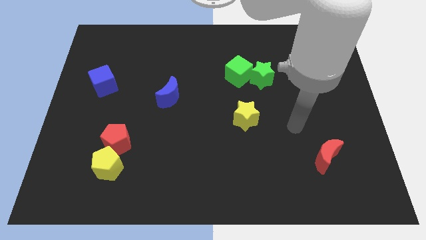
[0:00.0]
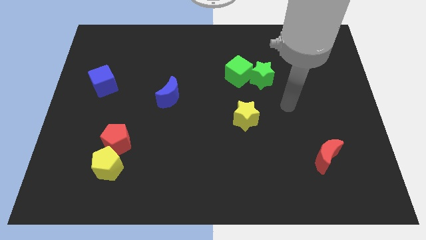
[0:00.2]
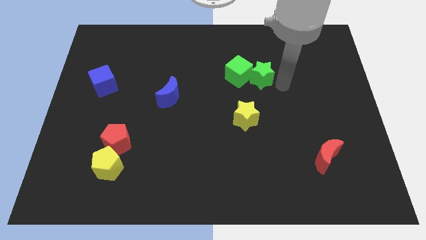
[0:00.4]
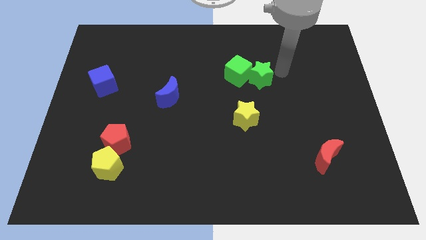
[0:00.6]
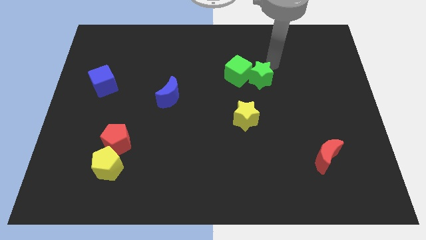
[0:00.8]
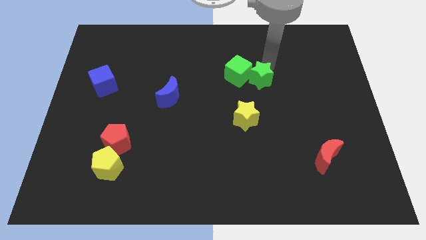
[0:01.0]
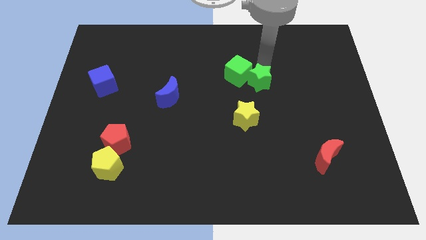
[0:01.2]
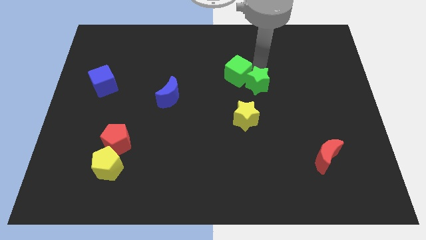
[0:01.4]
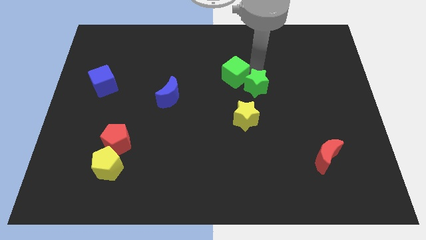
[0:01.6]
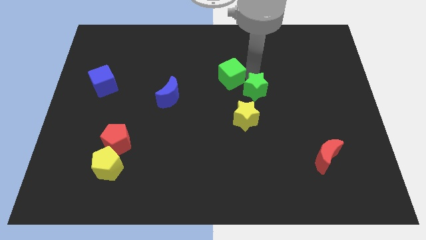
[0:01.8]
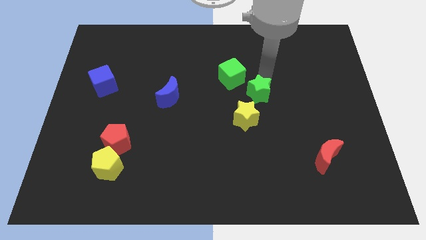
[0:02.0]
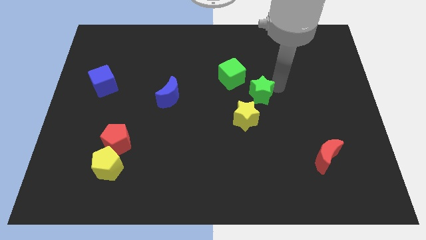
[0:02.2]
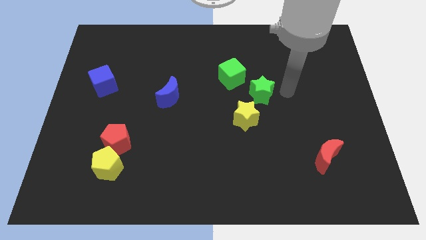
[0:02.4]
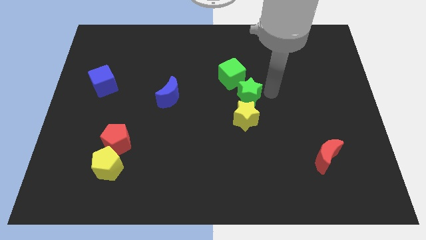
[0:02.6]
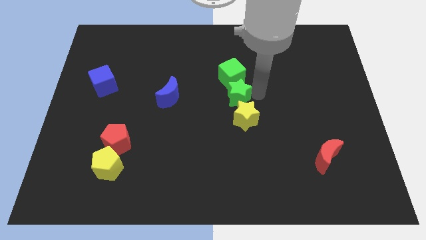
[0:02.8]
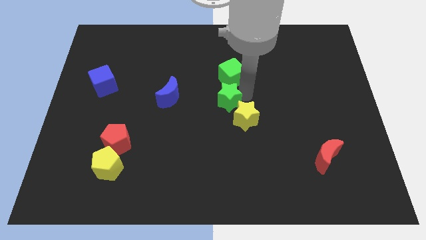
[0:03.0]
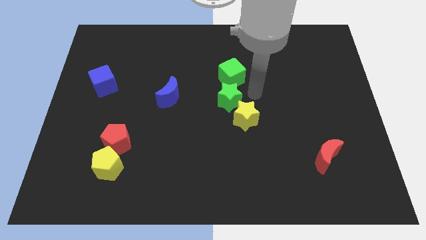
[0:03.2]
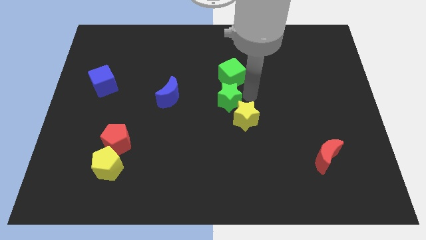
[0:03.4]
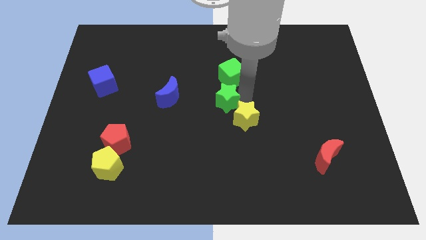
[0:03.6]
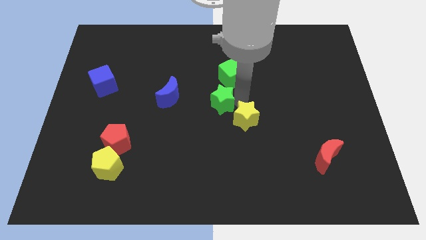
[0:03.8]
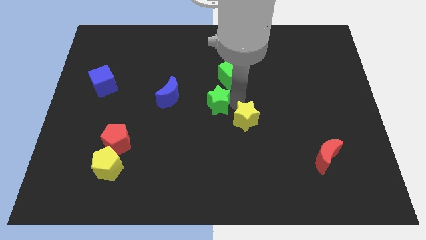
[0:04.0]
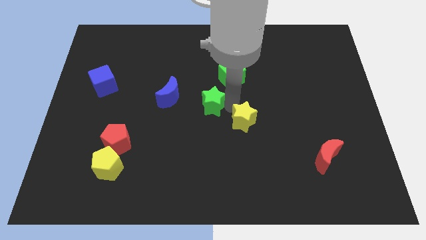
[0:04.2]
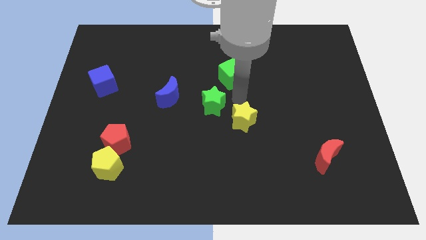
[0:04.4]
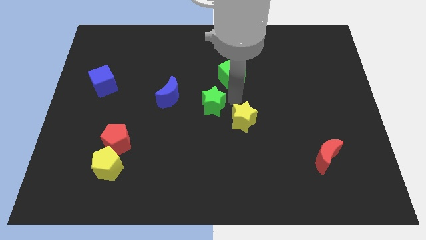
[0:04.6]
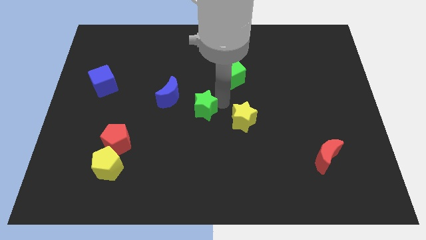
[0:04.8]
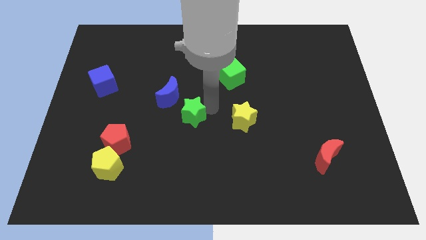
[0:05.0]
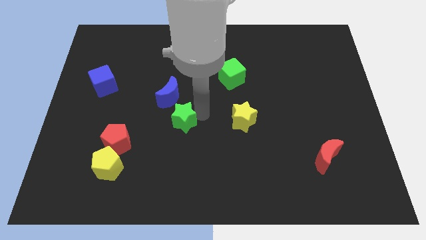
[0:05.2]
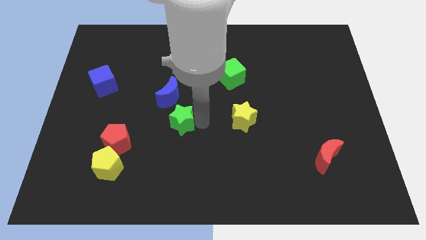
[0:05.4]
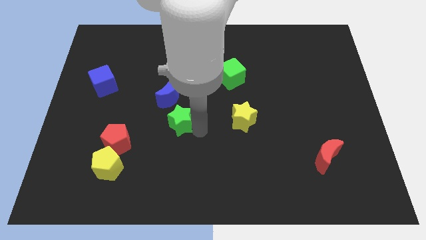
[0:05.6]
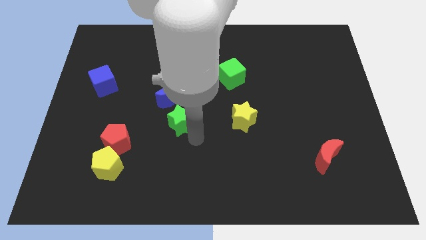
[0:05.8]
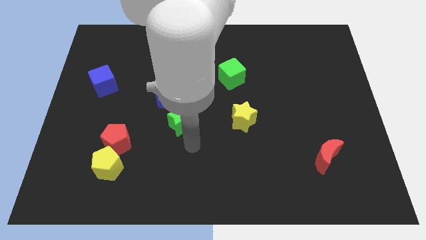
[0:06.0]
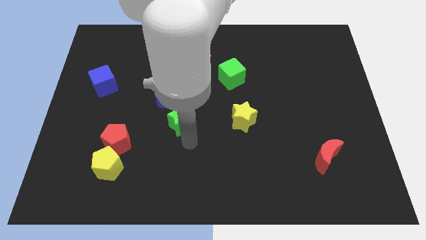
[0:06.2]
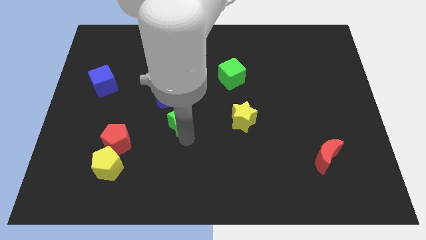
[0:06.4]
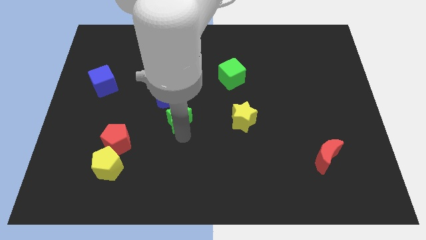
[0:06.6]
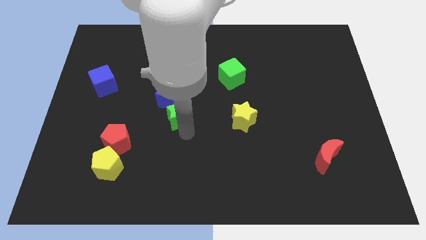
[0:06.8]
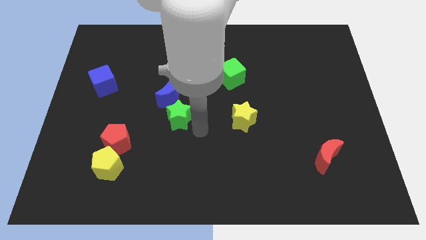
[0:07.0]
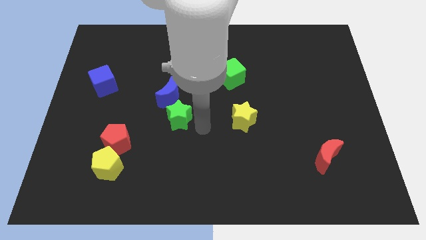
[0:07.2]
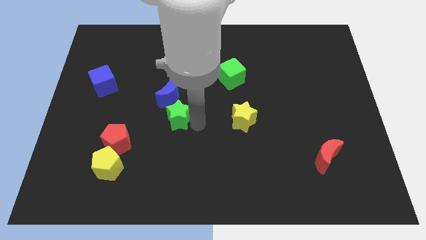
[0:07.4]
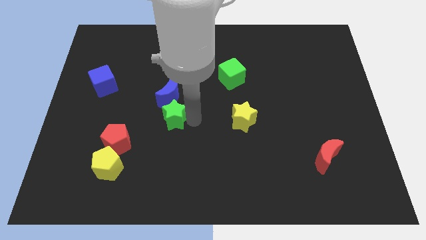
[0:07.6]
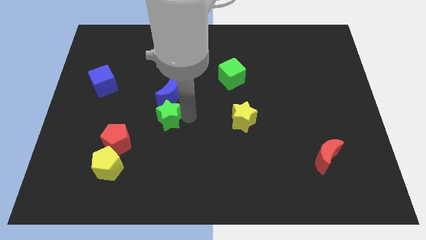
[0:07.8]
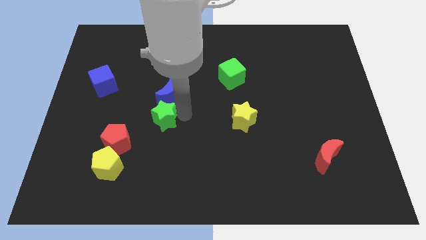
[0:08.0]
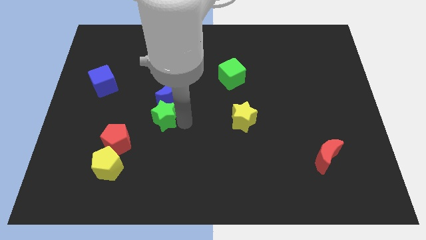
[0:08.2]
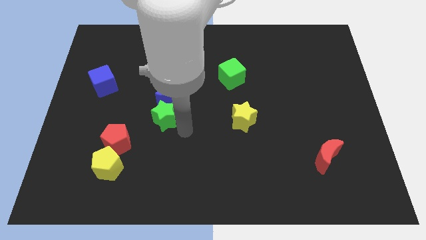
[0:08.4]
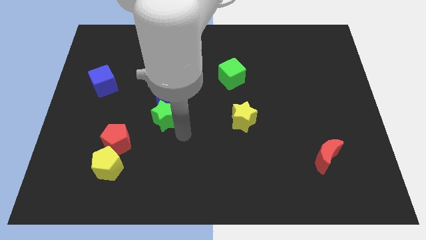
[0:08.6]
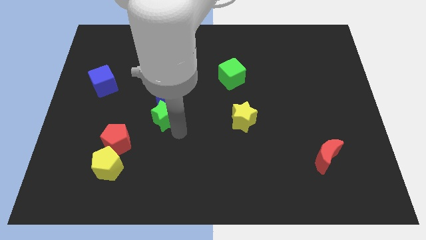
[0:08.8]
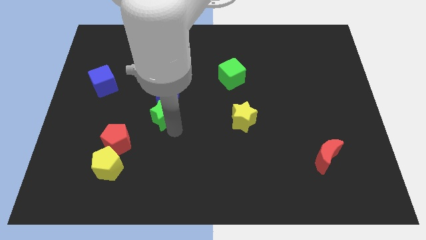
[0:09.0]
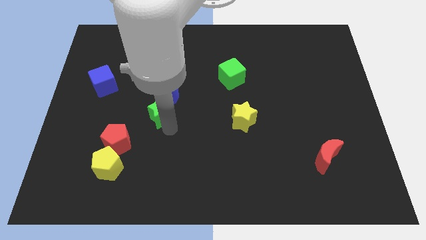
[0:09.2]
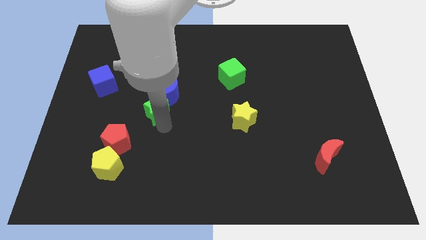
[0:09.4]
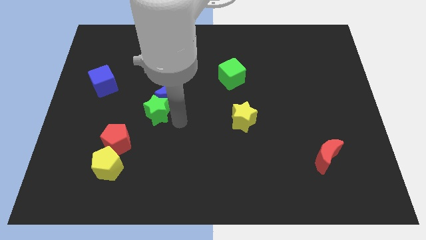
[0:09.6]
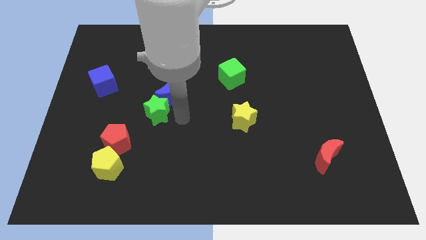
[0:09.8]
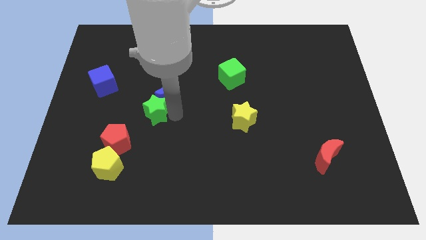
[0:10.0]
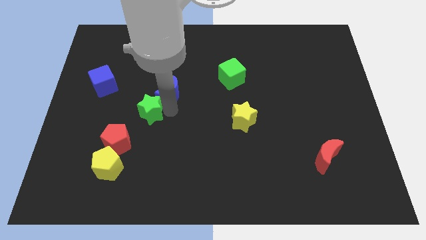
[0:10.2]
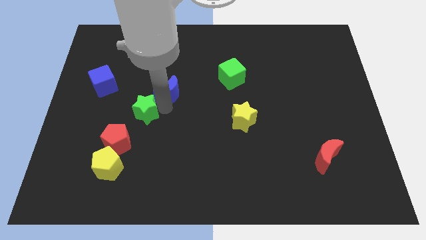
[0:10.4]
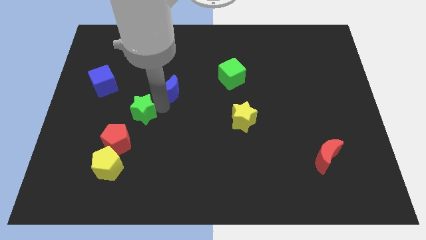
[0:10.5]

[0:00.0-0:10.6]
slide the green star above the red pentagon

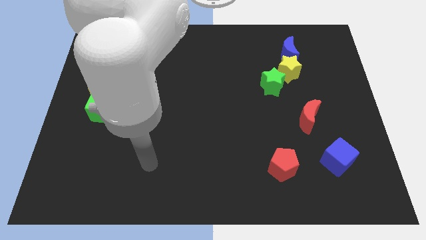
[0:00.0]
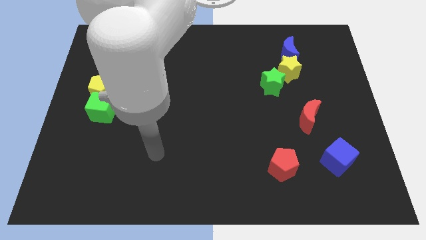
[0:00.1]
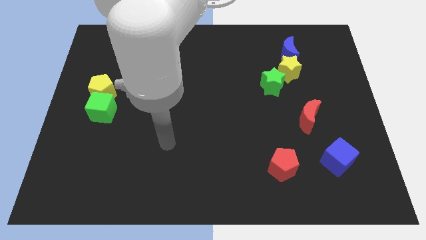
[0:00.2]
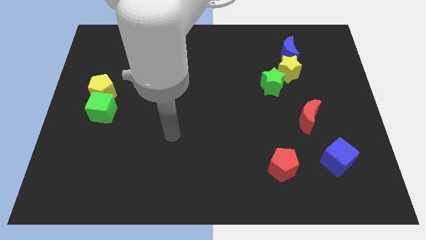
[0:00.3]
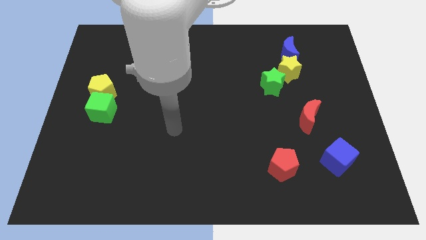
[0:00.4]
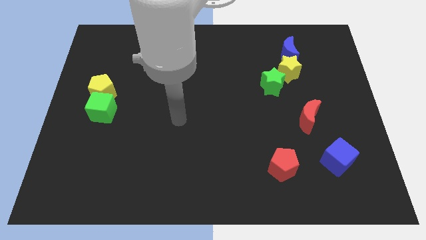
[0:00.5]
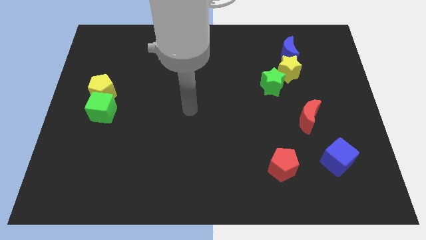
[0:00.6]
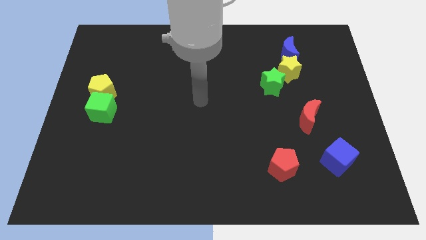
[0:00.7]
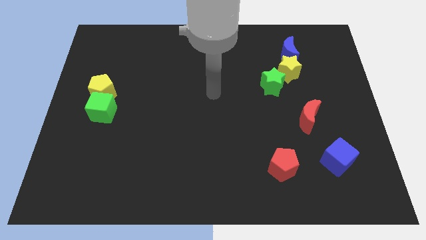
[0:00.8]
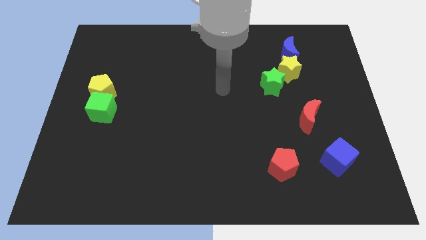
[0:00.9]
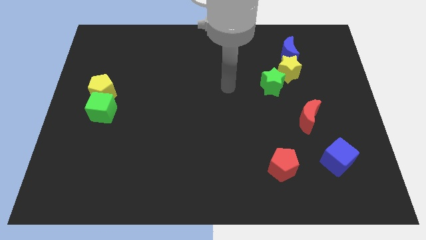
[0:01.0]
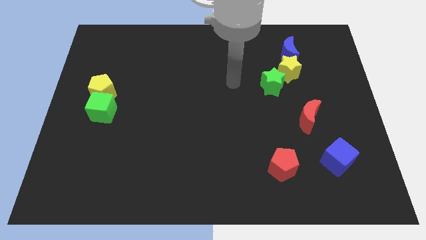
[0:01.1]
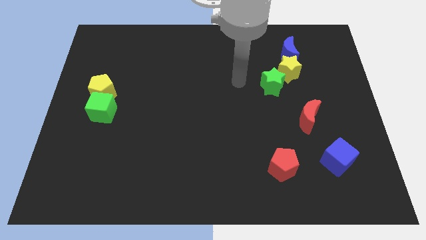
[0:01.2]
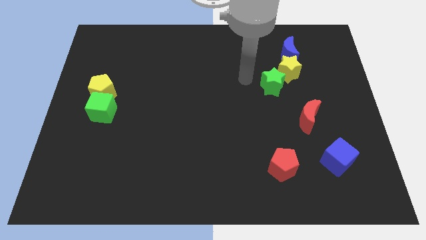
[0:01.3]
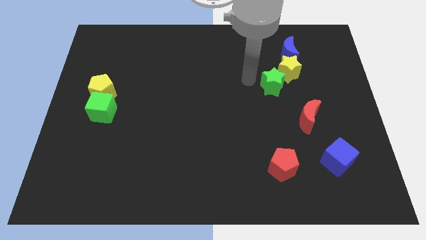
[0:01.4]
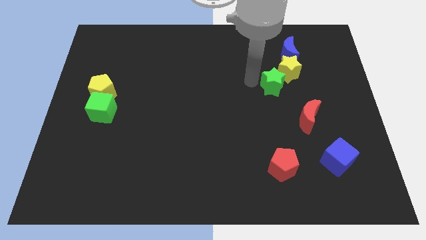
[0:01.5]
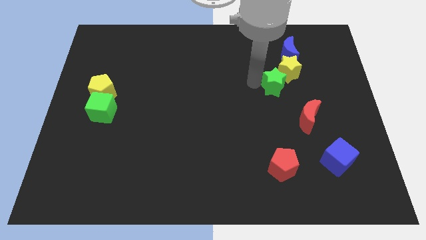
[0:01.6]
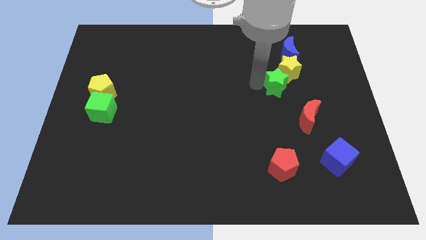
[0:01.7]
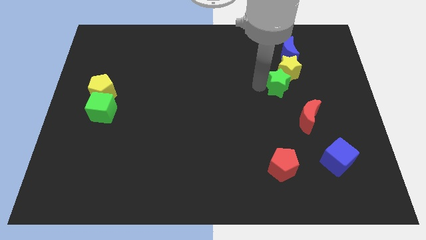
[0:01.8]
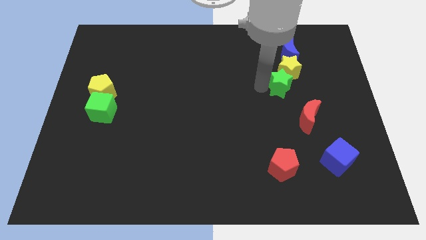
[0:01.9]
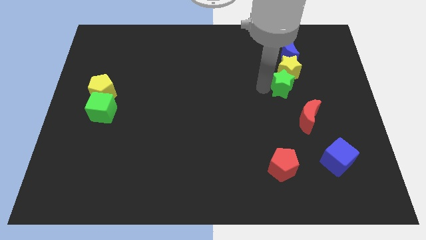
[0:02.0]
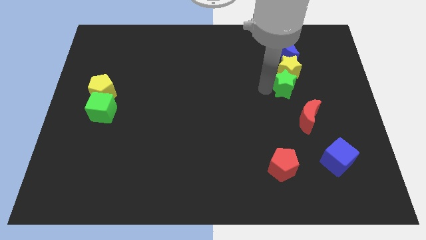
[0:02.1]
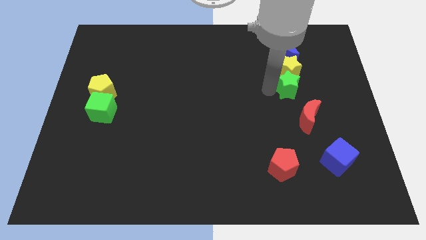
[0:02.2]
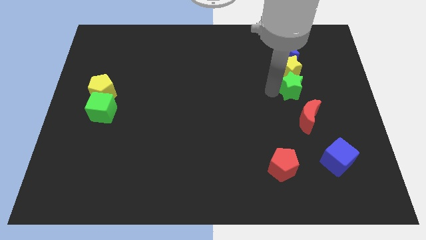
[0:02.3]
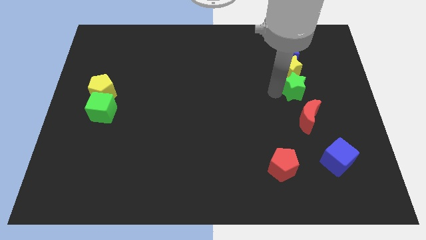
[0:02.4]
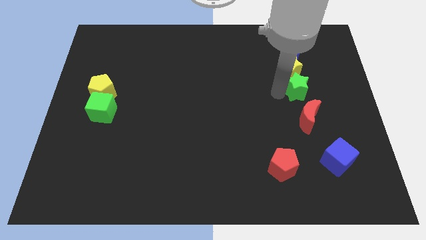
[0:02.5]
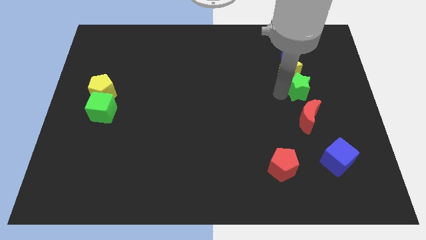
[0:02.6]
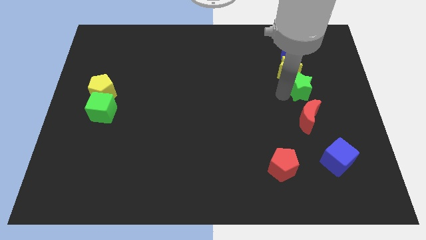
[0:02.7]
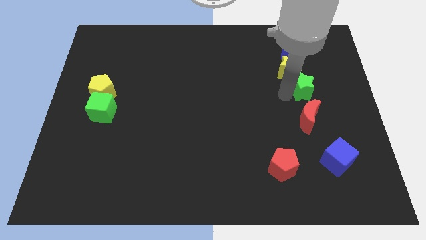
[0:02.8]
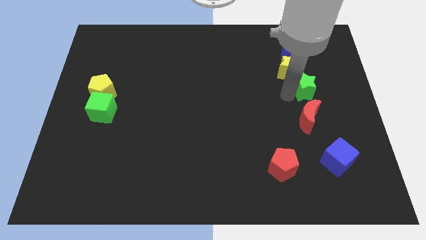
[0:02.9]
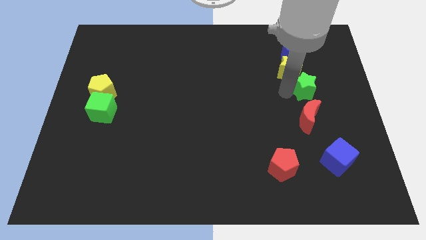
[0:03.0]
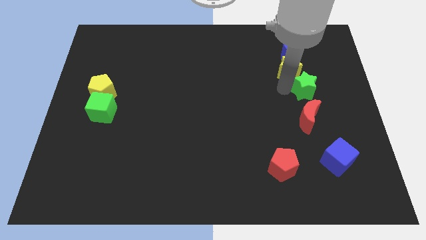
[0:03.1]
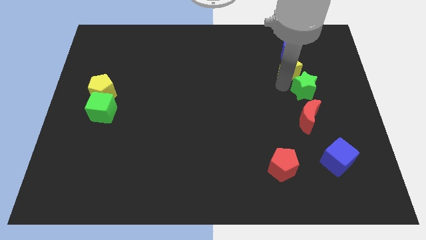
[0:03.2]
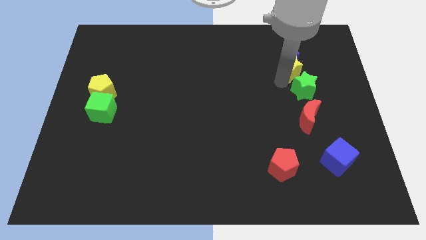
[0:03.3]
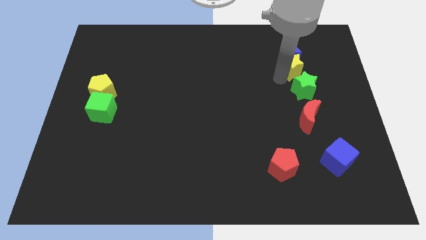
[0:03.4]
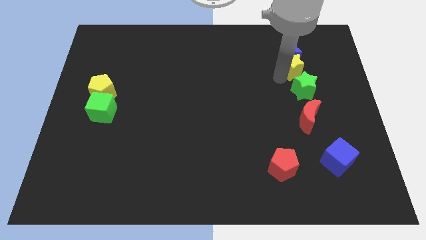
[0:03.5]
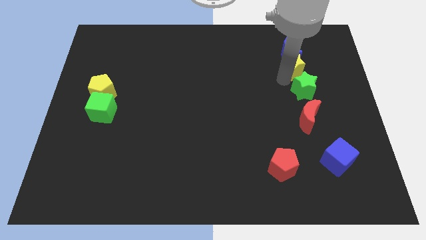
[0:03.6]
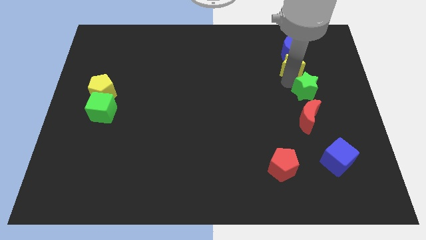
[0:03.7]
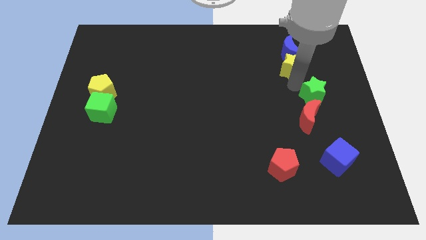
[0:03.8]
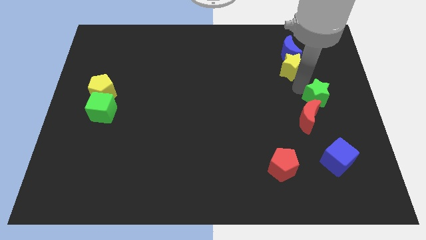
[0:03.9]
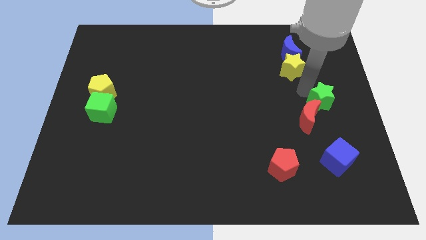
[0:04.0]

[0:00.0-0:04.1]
put the green star to the top side of the blue cube
